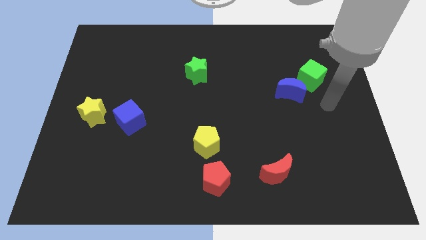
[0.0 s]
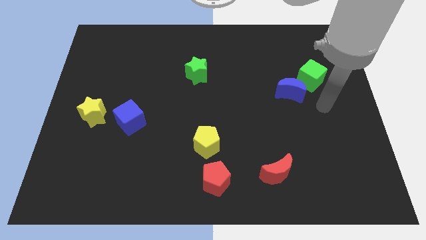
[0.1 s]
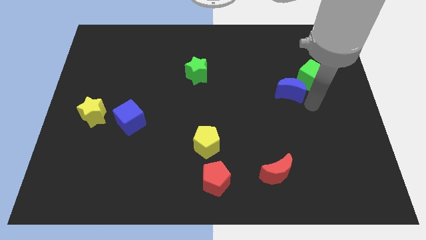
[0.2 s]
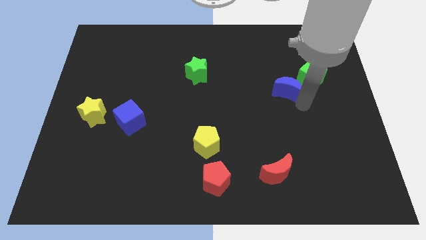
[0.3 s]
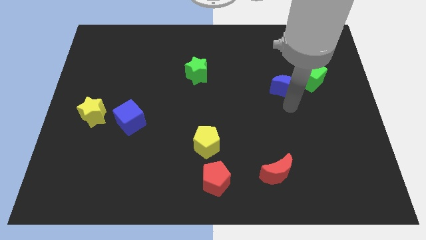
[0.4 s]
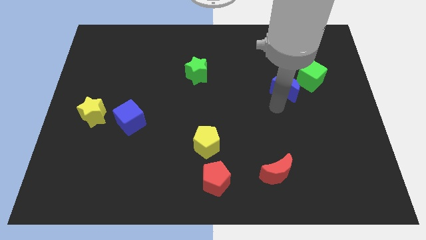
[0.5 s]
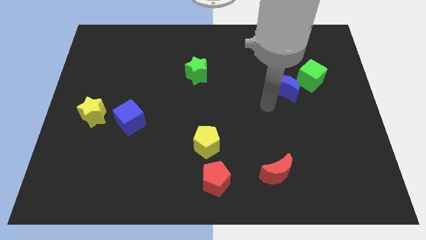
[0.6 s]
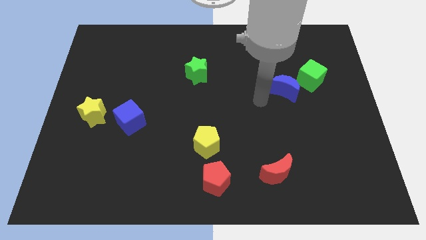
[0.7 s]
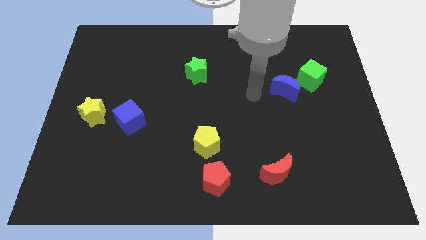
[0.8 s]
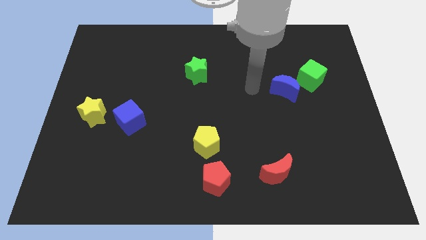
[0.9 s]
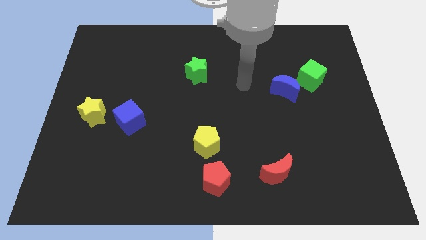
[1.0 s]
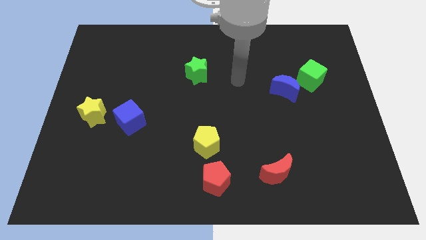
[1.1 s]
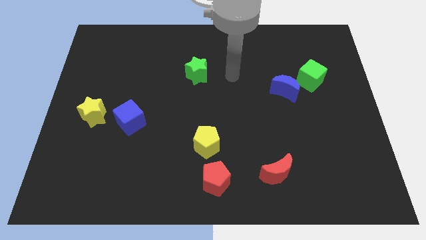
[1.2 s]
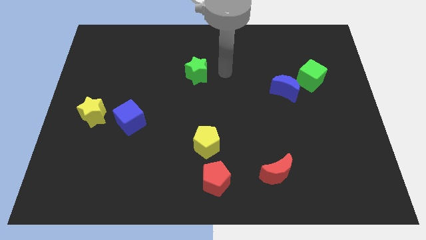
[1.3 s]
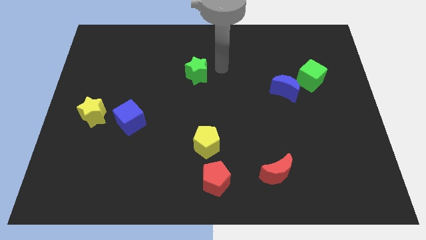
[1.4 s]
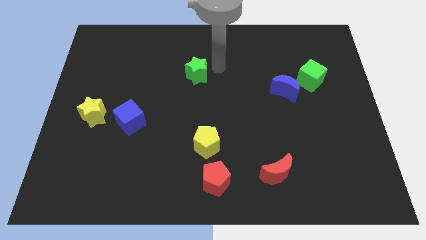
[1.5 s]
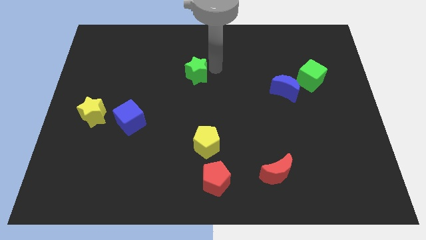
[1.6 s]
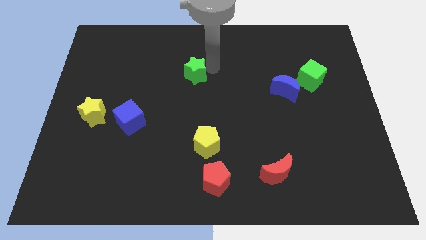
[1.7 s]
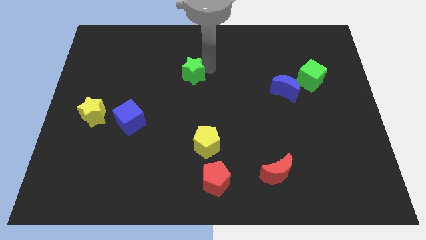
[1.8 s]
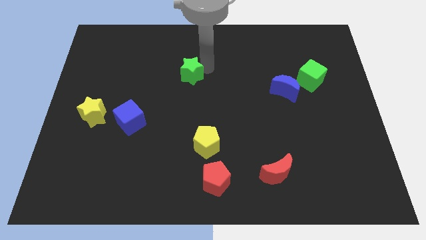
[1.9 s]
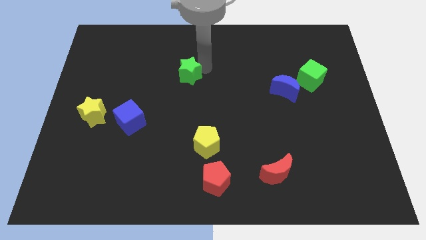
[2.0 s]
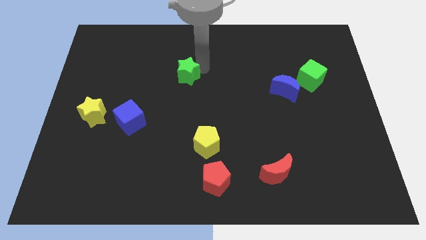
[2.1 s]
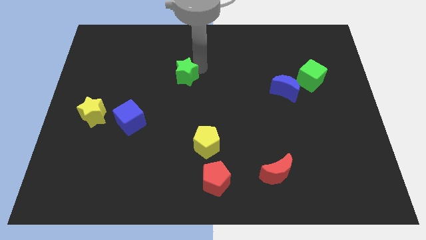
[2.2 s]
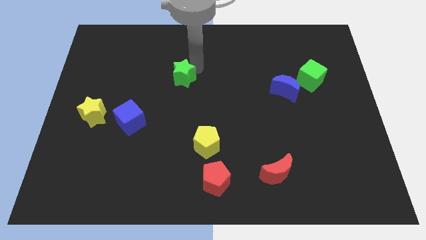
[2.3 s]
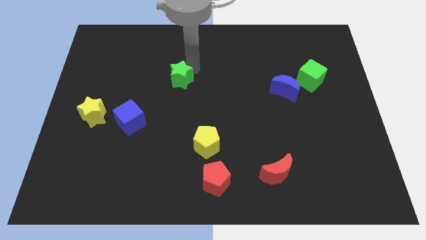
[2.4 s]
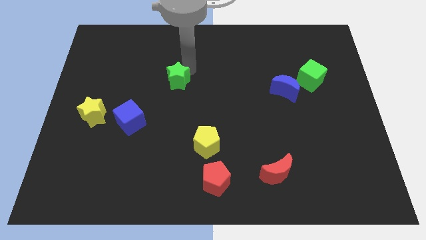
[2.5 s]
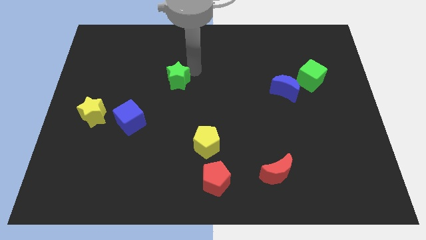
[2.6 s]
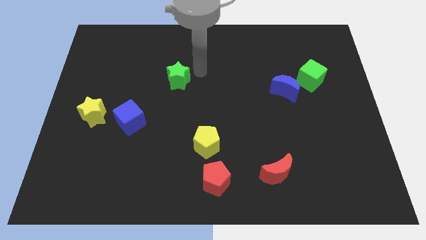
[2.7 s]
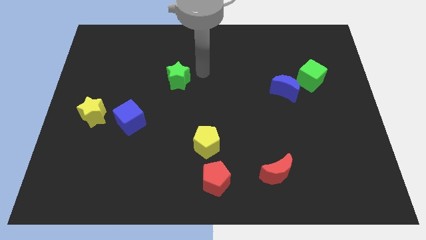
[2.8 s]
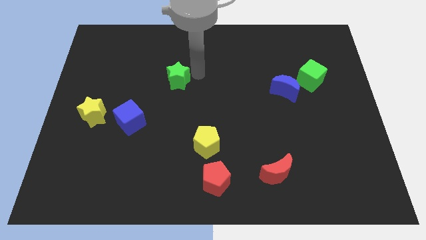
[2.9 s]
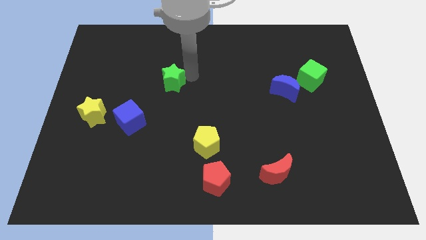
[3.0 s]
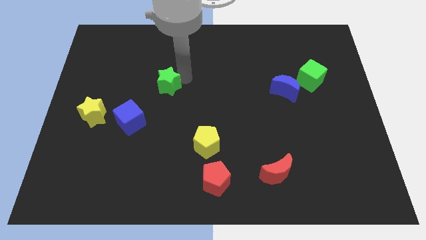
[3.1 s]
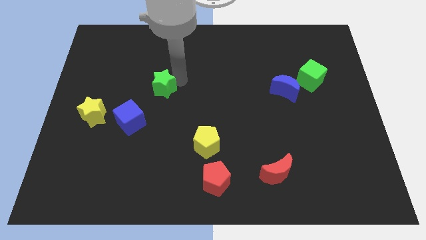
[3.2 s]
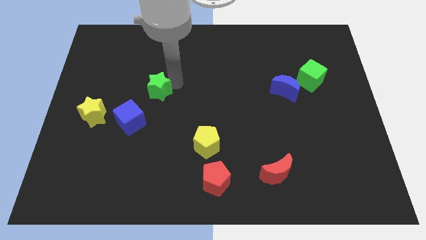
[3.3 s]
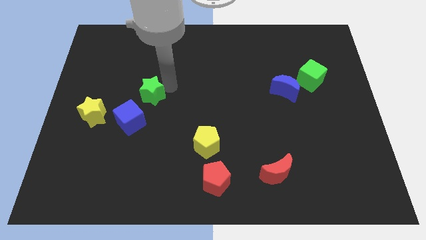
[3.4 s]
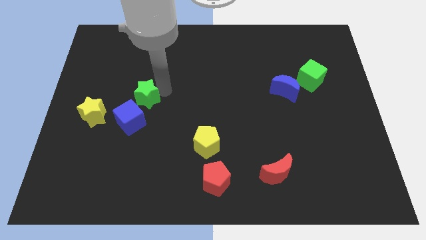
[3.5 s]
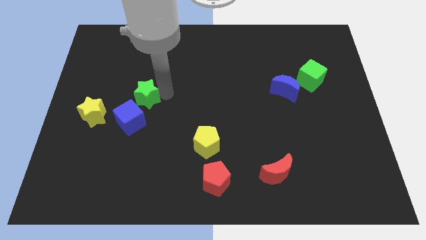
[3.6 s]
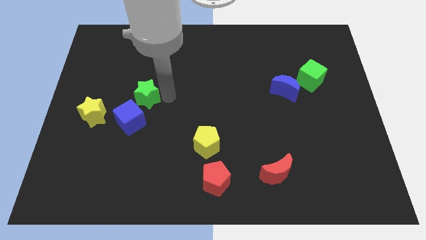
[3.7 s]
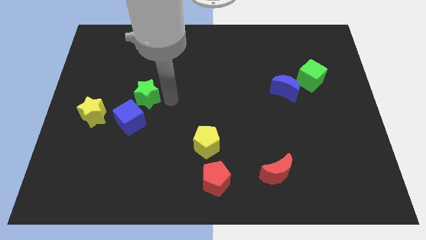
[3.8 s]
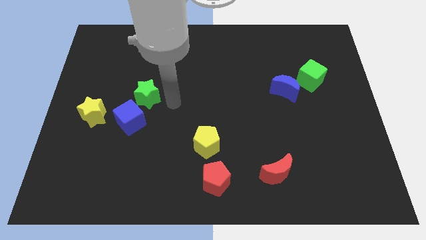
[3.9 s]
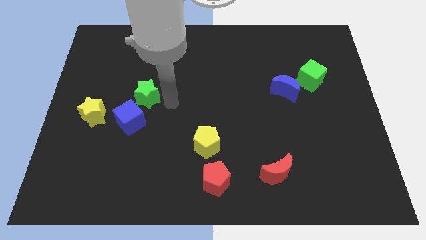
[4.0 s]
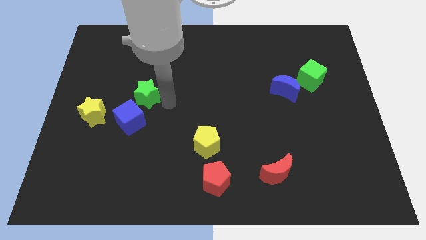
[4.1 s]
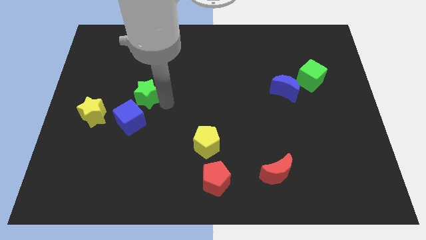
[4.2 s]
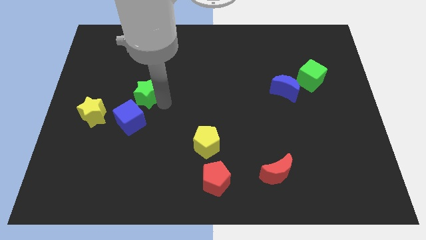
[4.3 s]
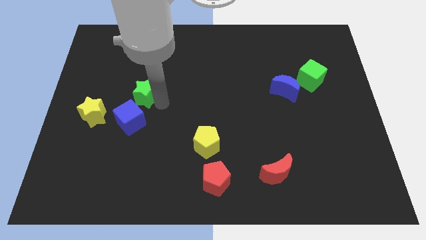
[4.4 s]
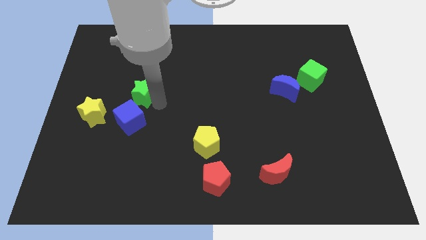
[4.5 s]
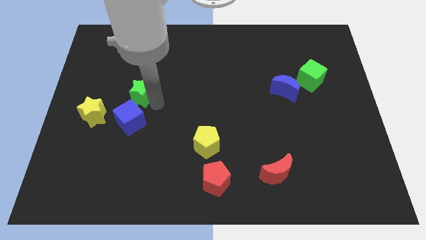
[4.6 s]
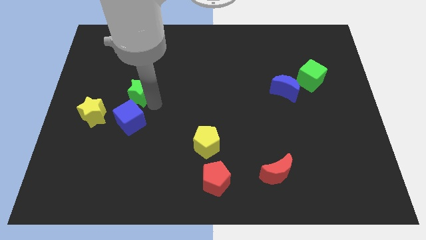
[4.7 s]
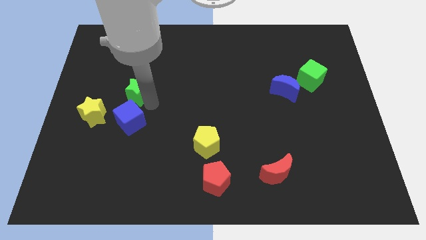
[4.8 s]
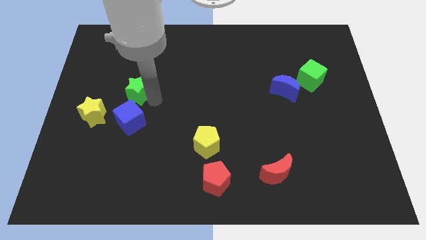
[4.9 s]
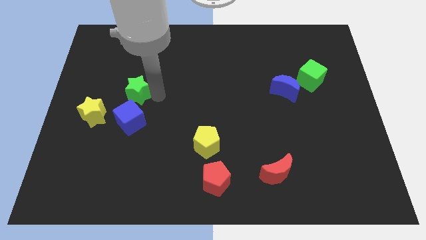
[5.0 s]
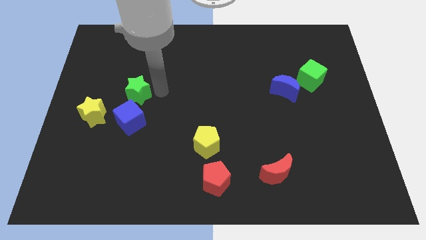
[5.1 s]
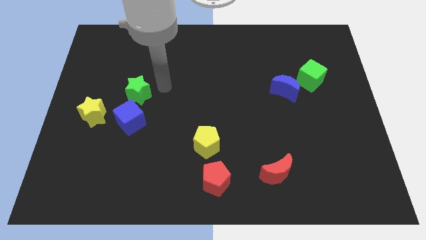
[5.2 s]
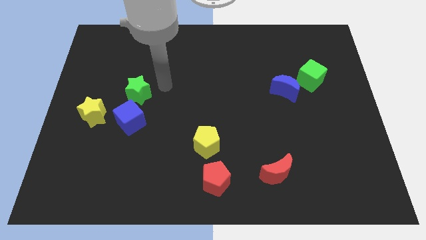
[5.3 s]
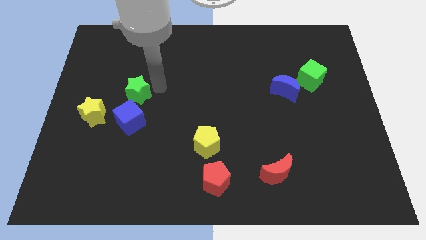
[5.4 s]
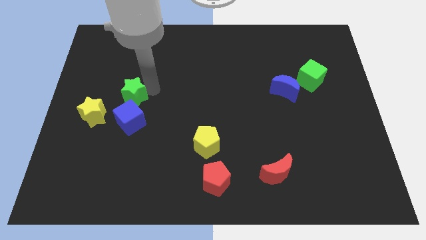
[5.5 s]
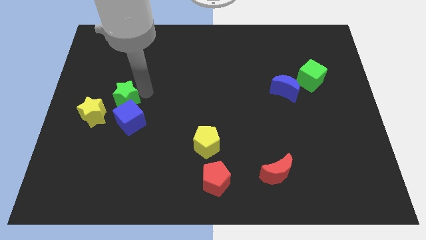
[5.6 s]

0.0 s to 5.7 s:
slide the green star to the top left side of the blue cube
